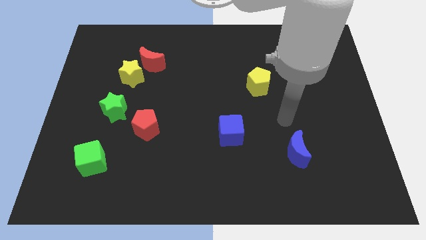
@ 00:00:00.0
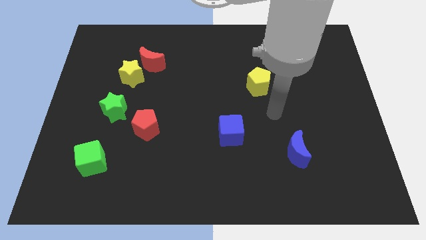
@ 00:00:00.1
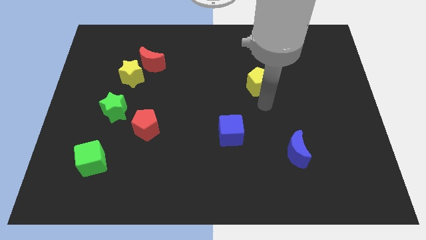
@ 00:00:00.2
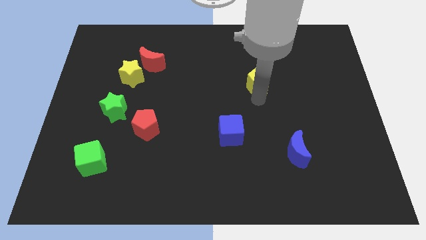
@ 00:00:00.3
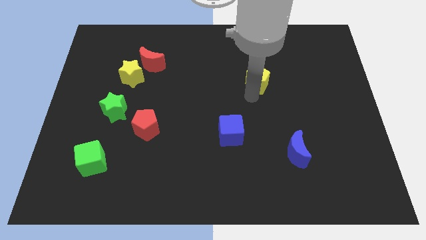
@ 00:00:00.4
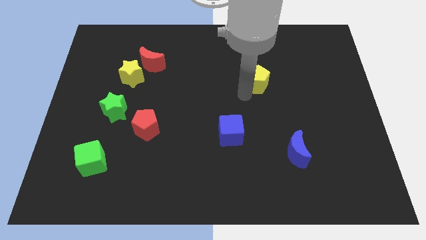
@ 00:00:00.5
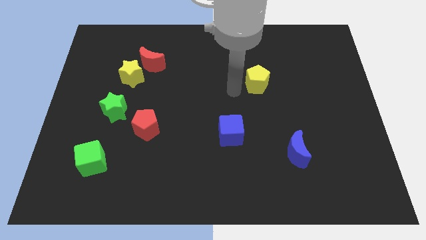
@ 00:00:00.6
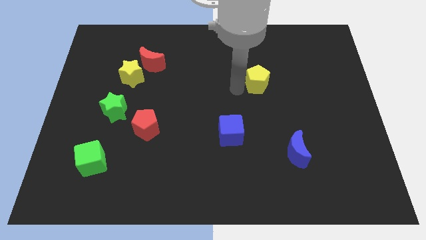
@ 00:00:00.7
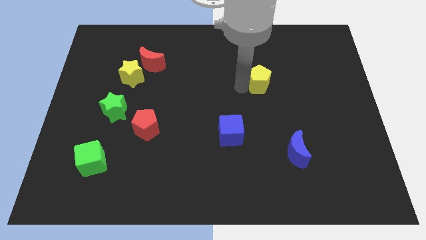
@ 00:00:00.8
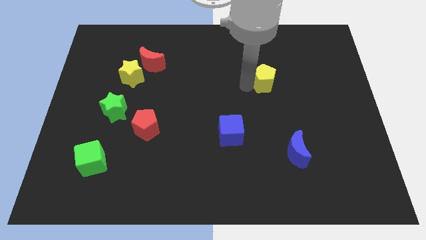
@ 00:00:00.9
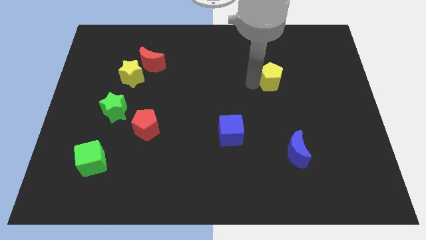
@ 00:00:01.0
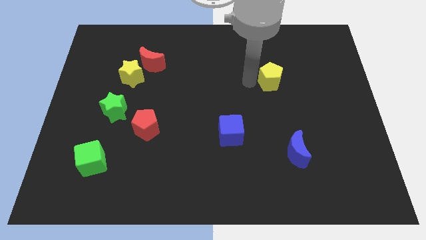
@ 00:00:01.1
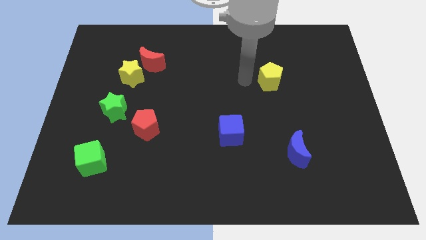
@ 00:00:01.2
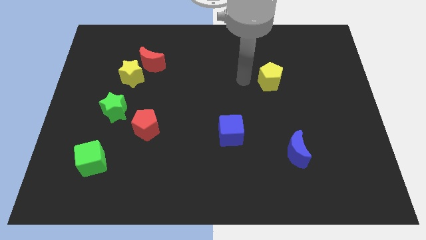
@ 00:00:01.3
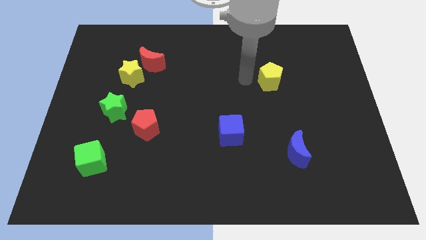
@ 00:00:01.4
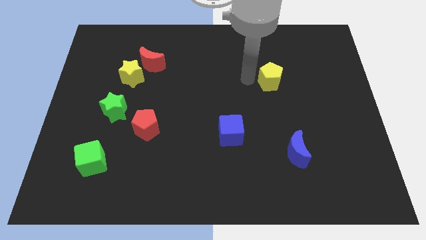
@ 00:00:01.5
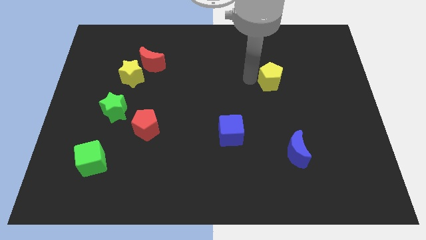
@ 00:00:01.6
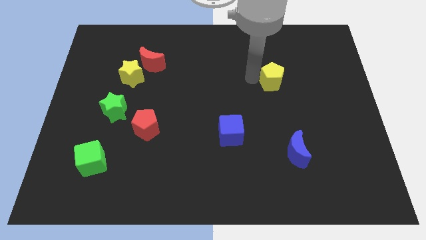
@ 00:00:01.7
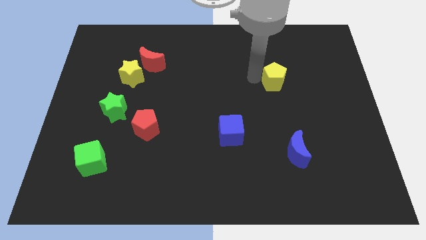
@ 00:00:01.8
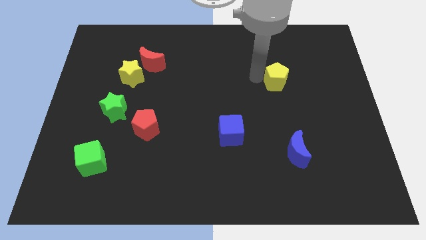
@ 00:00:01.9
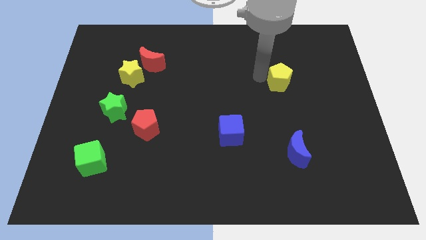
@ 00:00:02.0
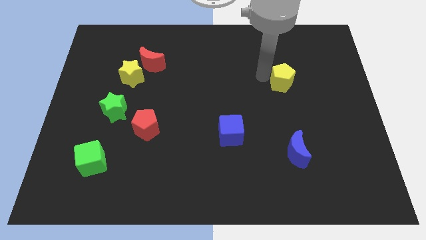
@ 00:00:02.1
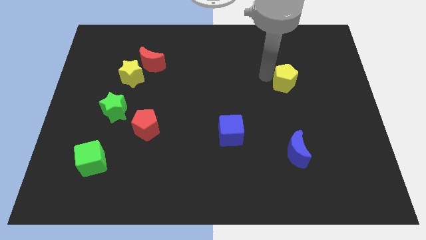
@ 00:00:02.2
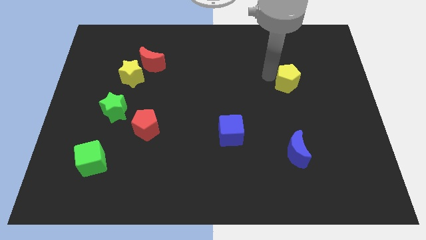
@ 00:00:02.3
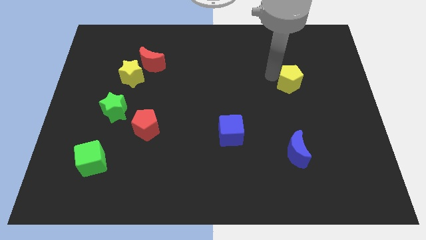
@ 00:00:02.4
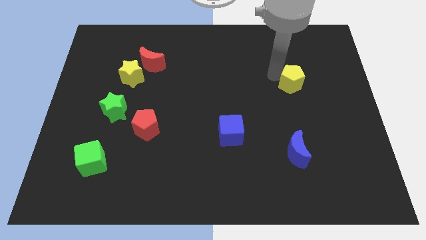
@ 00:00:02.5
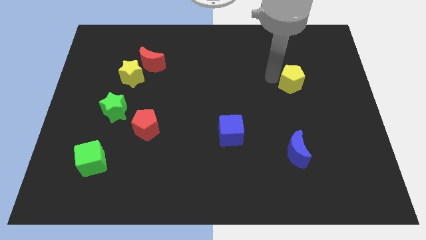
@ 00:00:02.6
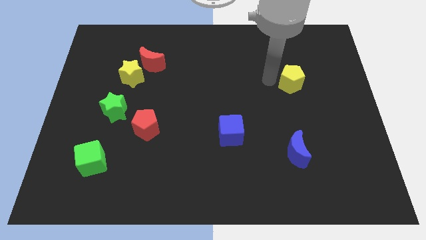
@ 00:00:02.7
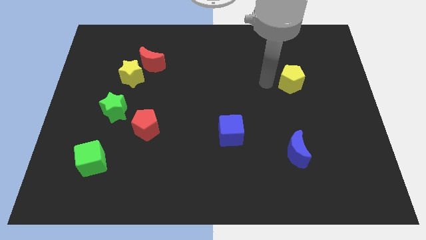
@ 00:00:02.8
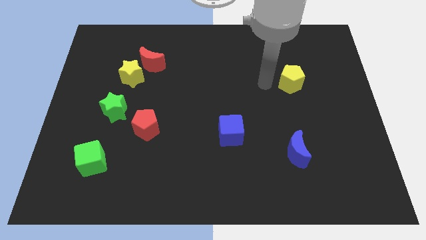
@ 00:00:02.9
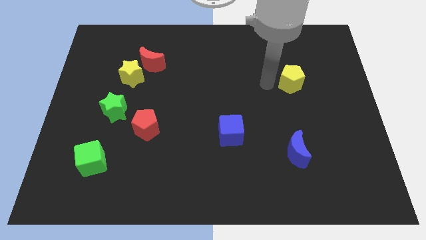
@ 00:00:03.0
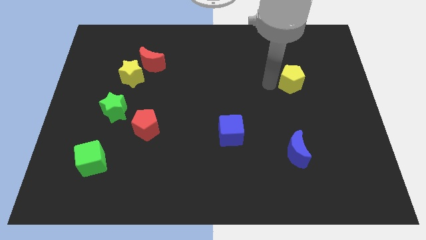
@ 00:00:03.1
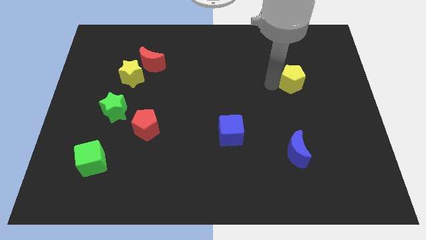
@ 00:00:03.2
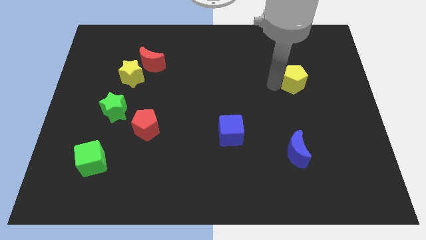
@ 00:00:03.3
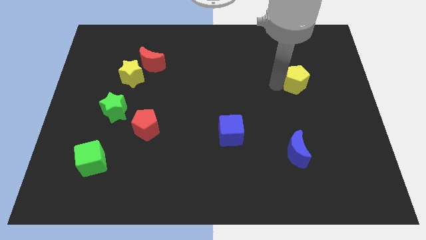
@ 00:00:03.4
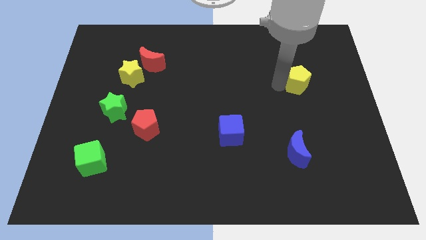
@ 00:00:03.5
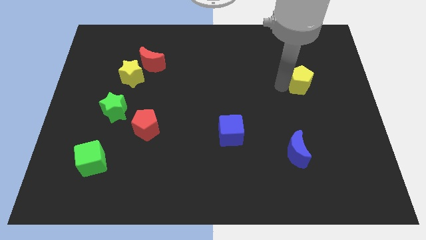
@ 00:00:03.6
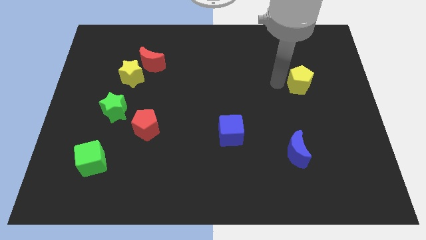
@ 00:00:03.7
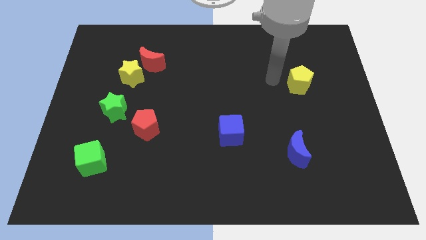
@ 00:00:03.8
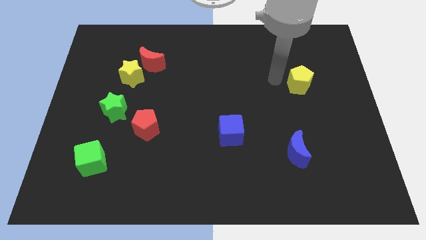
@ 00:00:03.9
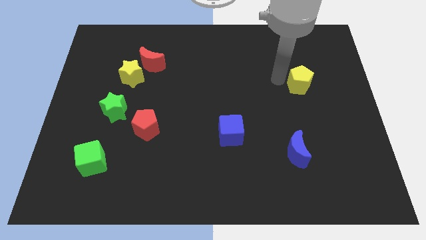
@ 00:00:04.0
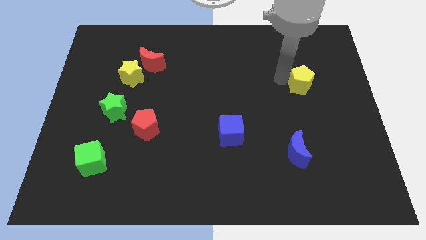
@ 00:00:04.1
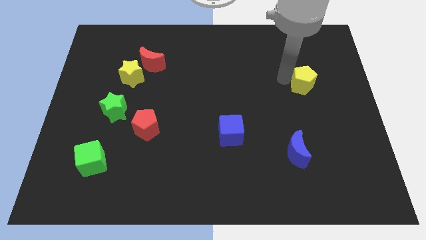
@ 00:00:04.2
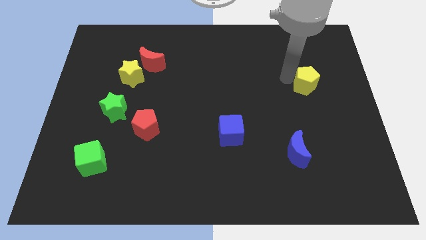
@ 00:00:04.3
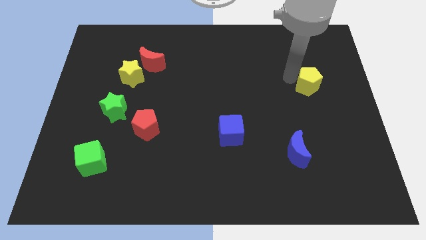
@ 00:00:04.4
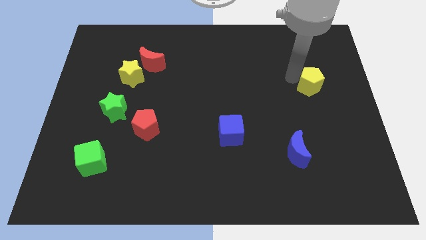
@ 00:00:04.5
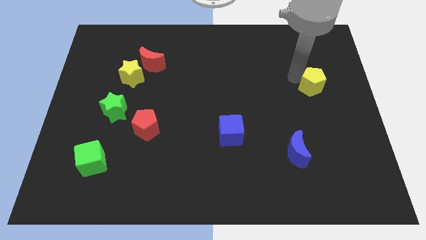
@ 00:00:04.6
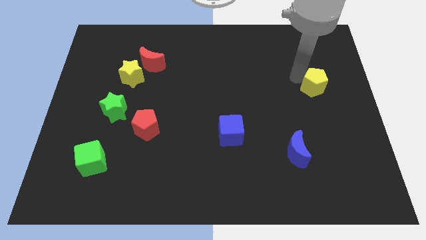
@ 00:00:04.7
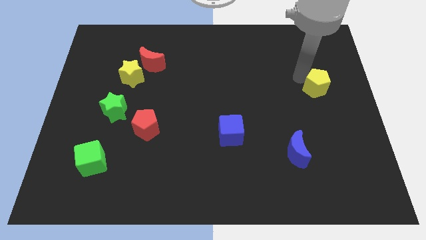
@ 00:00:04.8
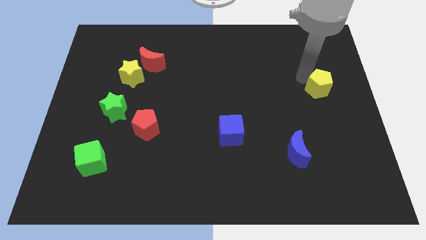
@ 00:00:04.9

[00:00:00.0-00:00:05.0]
slide the yellow pentagon to the right side

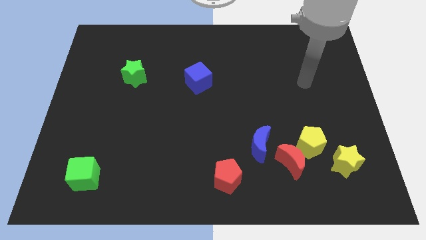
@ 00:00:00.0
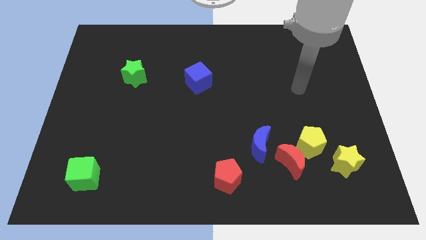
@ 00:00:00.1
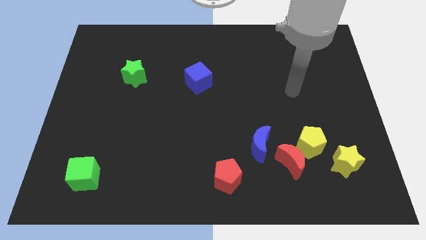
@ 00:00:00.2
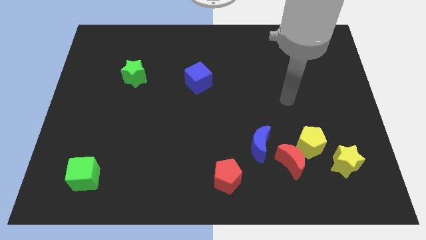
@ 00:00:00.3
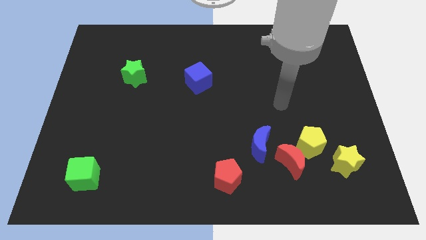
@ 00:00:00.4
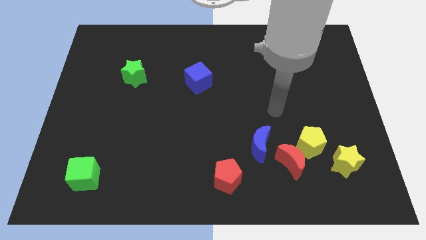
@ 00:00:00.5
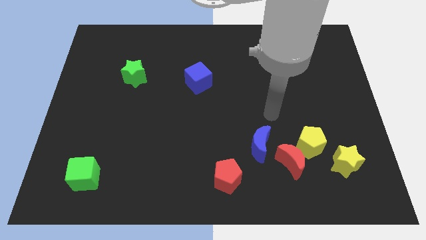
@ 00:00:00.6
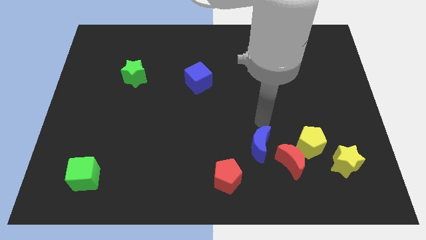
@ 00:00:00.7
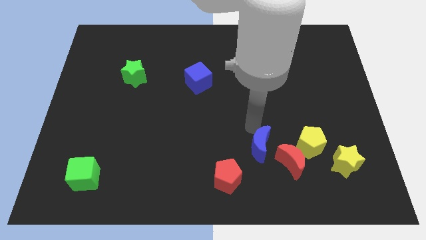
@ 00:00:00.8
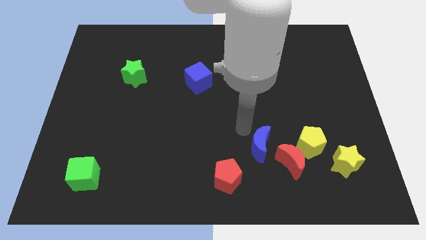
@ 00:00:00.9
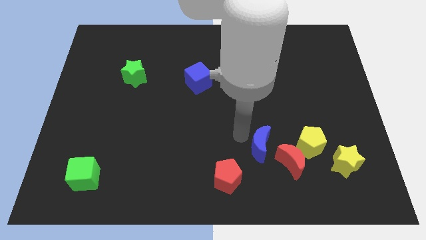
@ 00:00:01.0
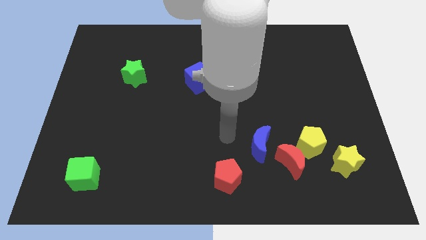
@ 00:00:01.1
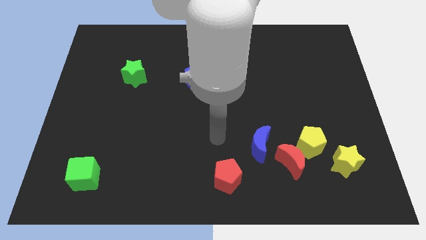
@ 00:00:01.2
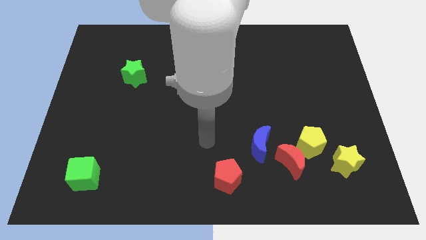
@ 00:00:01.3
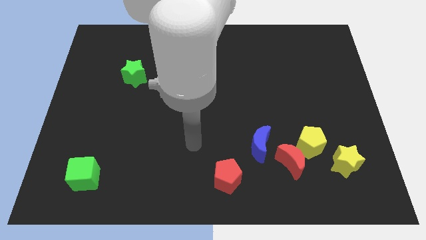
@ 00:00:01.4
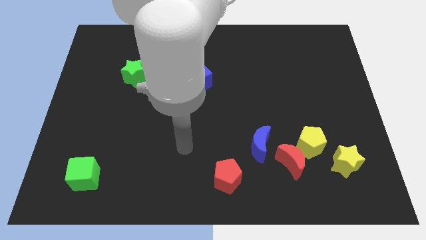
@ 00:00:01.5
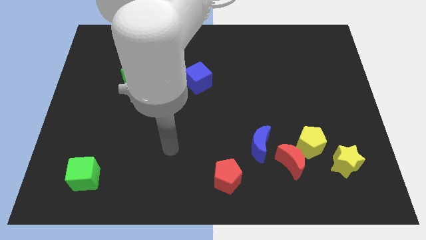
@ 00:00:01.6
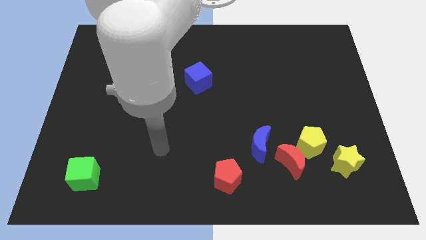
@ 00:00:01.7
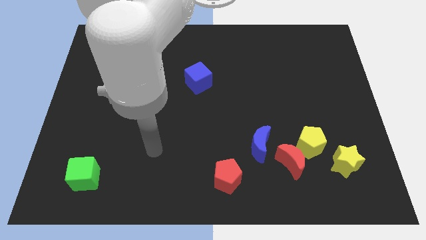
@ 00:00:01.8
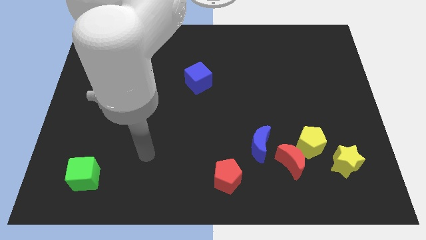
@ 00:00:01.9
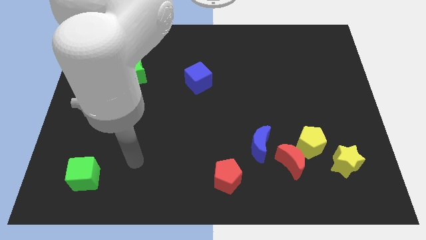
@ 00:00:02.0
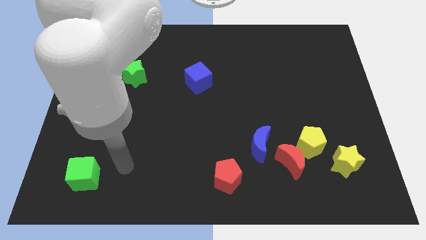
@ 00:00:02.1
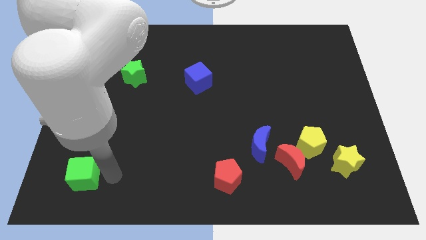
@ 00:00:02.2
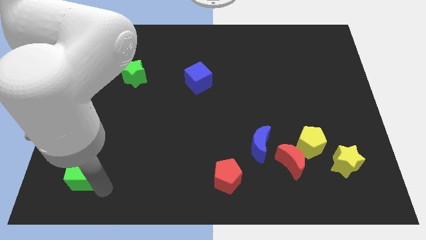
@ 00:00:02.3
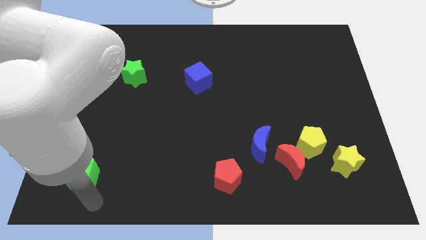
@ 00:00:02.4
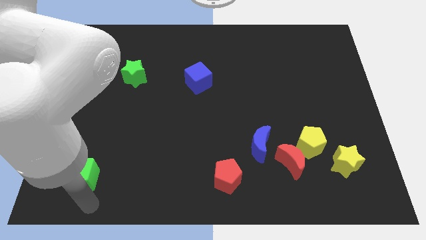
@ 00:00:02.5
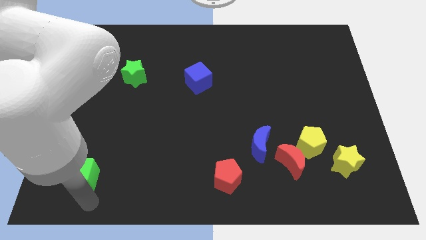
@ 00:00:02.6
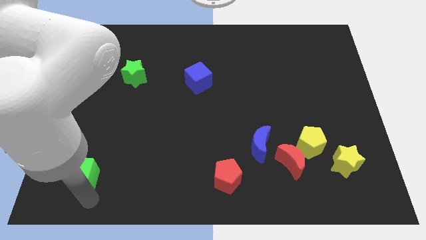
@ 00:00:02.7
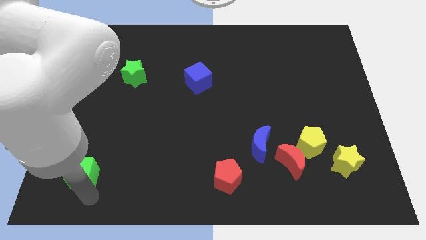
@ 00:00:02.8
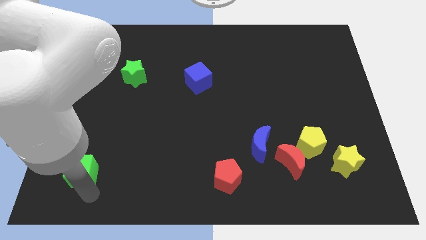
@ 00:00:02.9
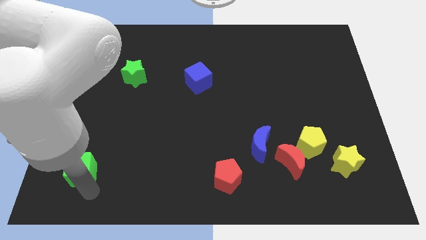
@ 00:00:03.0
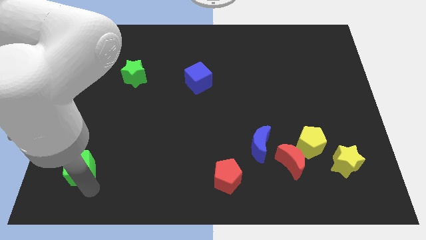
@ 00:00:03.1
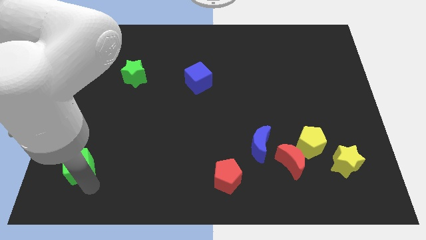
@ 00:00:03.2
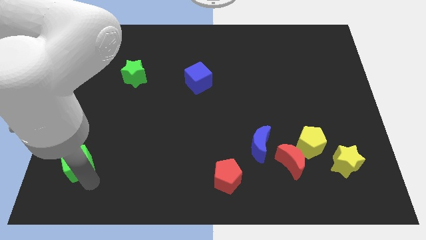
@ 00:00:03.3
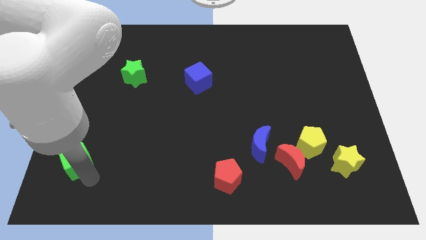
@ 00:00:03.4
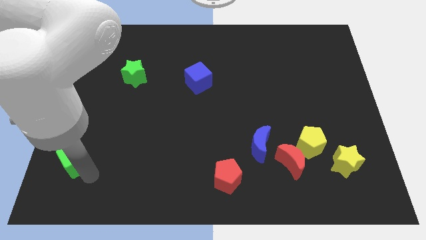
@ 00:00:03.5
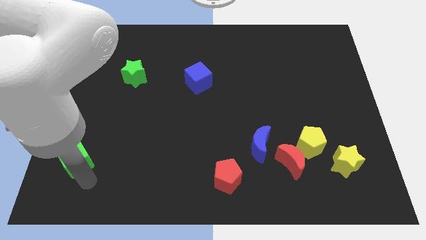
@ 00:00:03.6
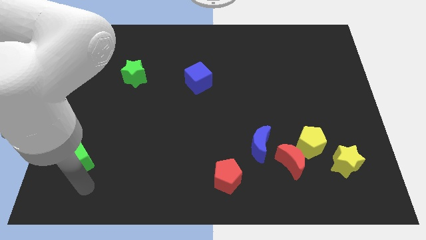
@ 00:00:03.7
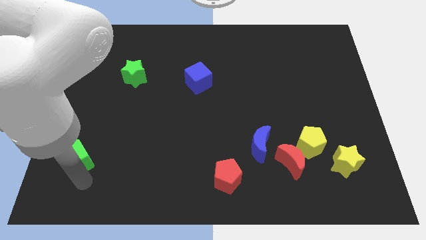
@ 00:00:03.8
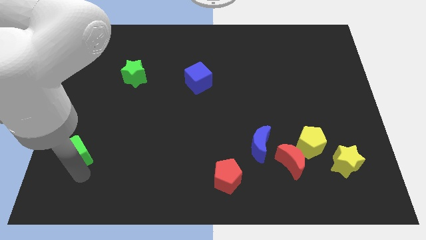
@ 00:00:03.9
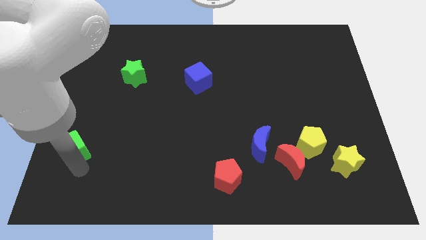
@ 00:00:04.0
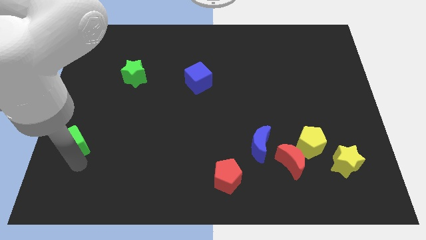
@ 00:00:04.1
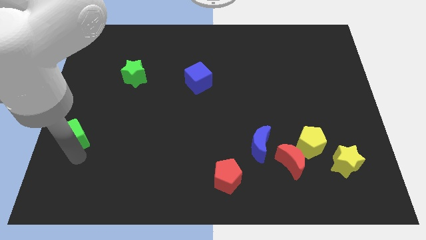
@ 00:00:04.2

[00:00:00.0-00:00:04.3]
push the green cube to the left side of the board
